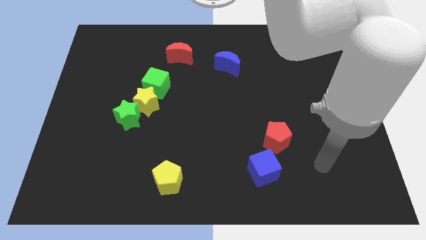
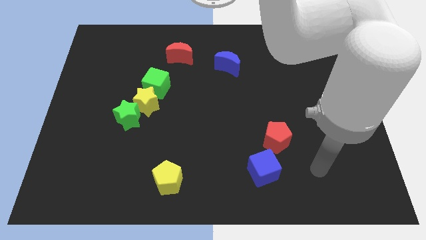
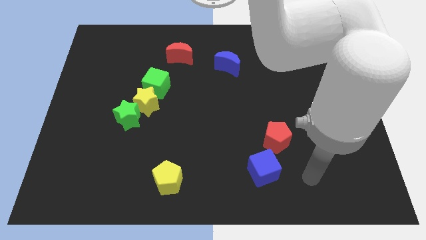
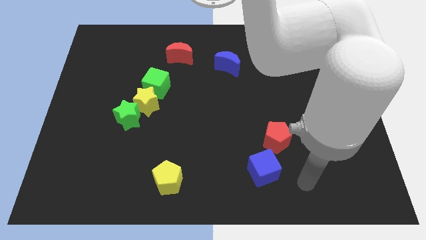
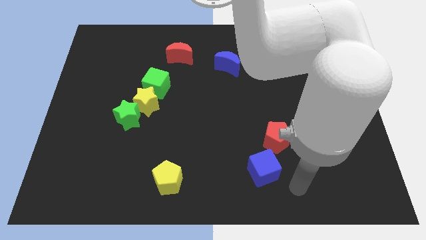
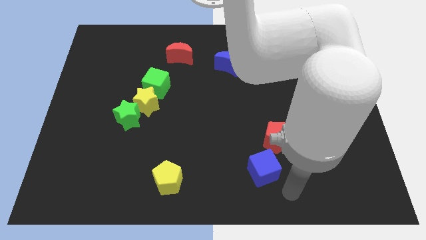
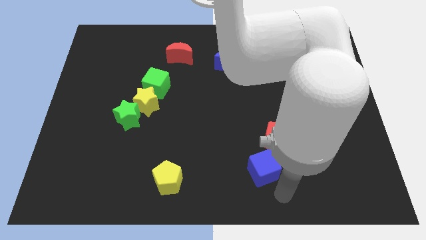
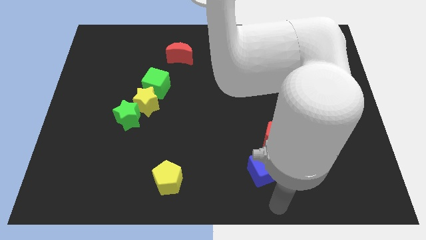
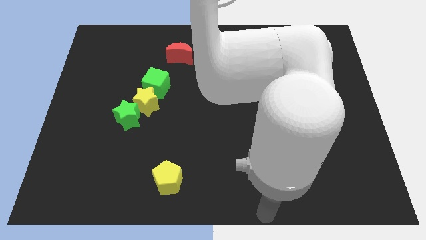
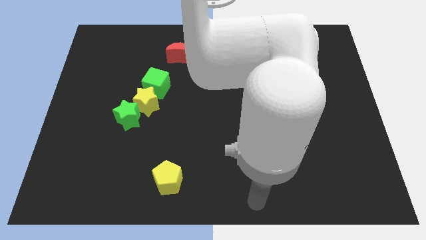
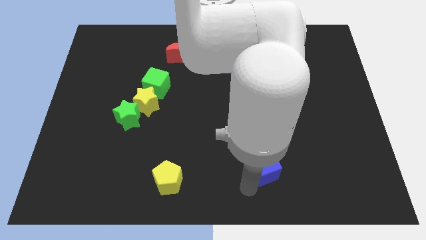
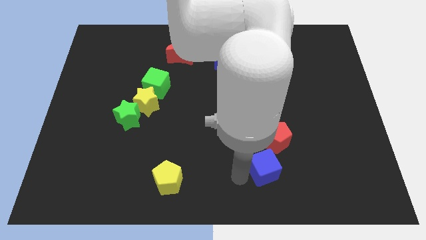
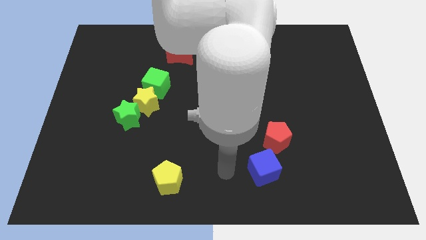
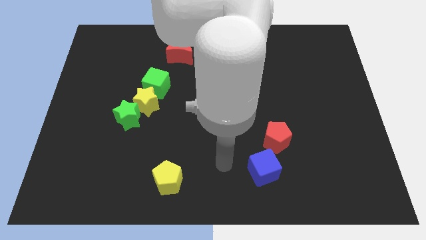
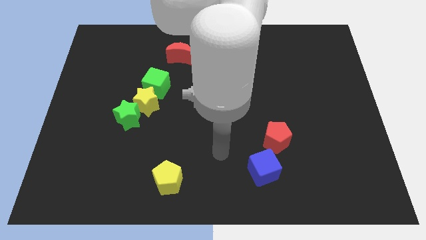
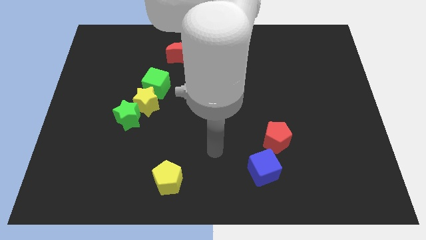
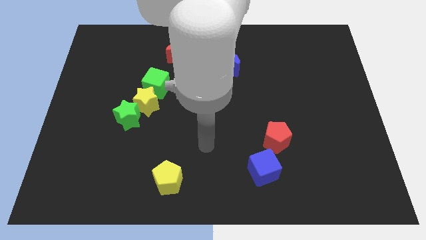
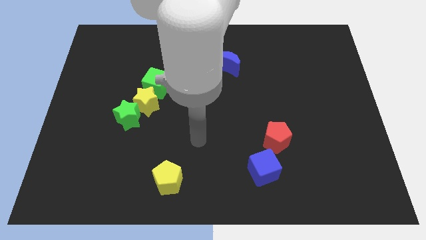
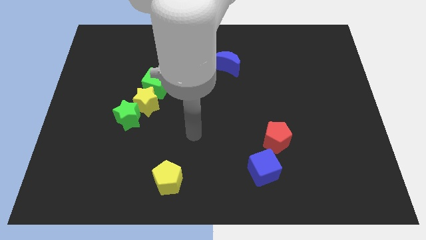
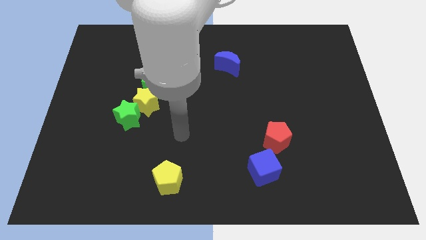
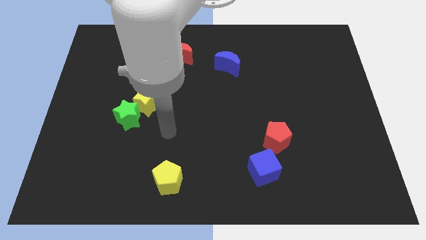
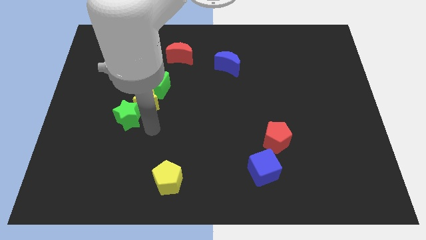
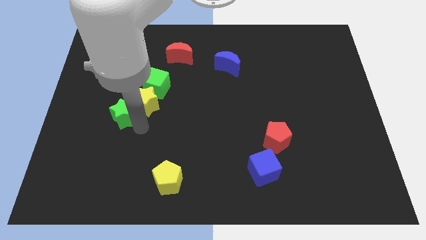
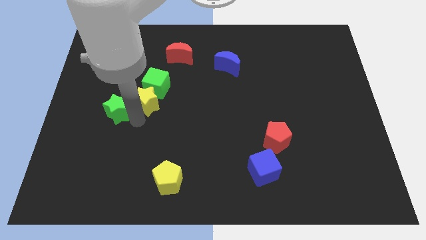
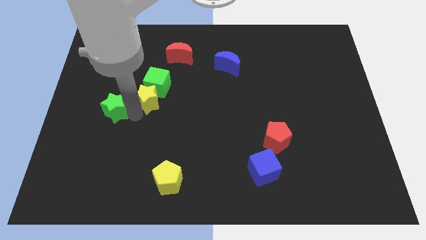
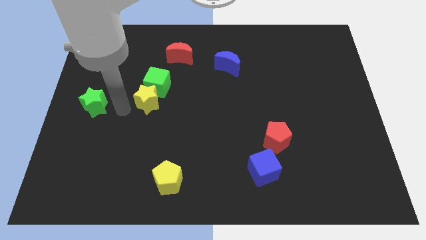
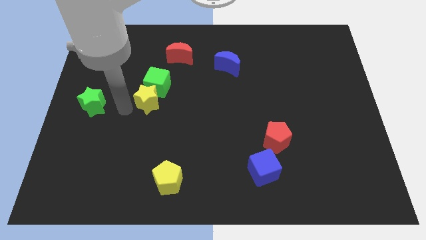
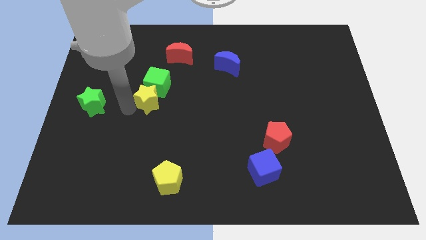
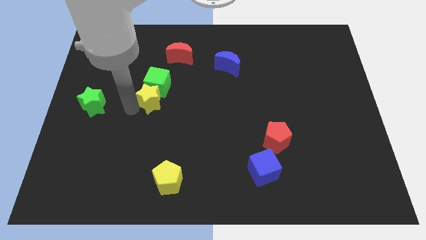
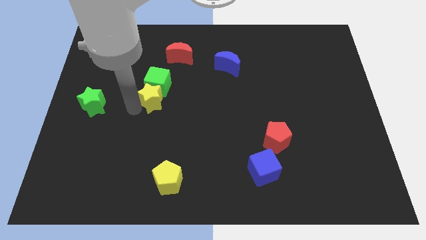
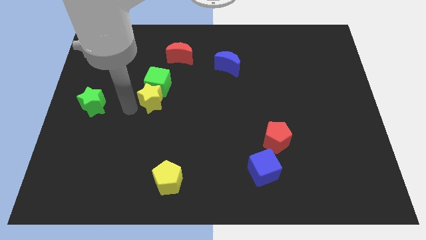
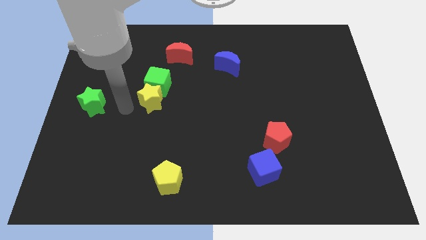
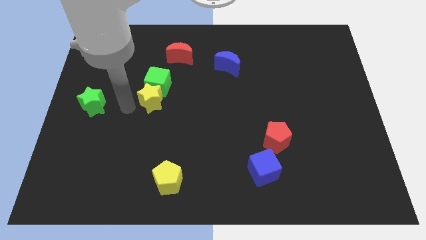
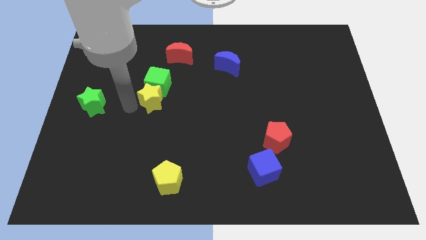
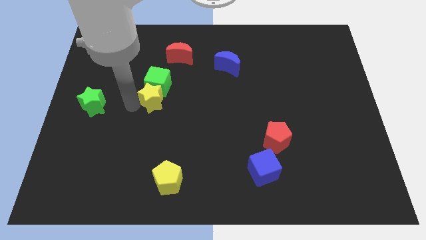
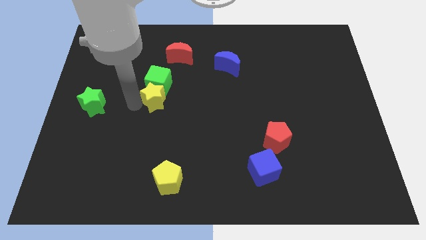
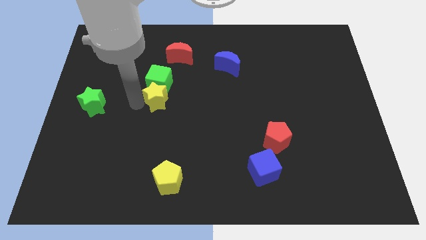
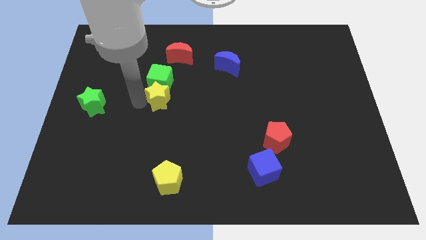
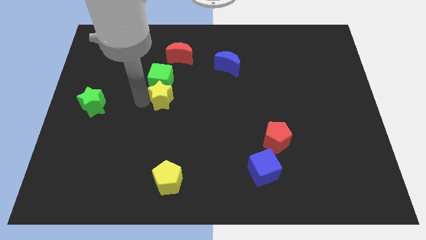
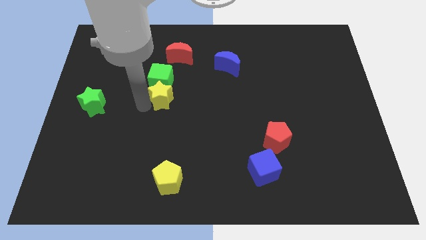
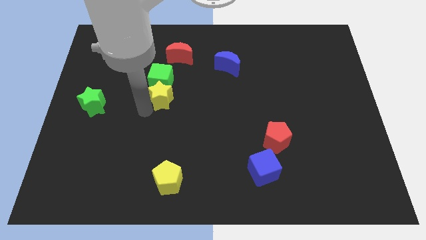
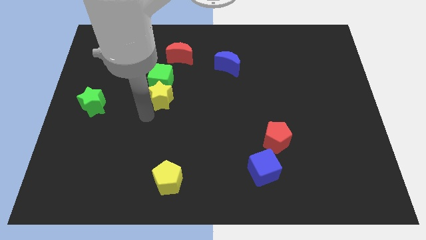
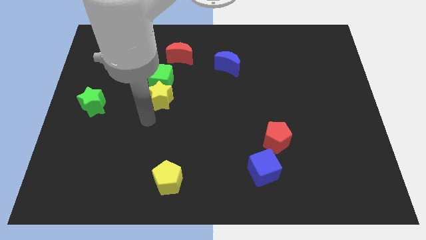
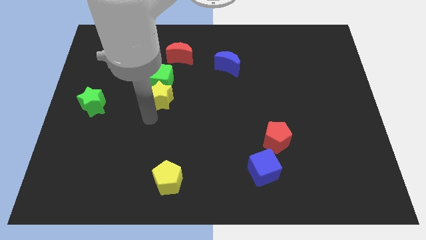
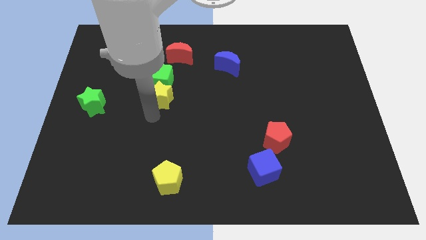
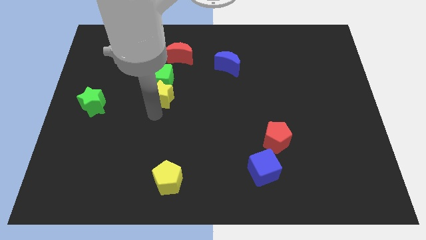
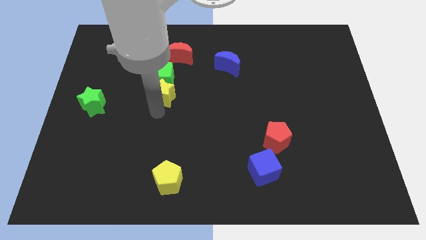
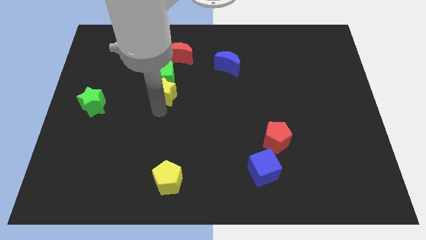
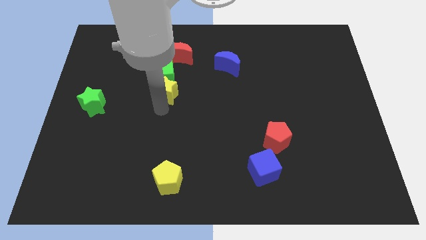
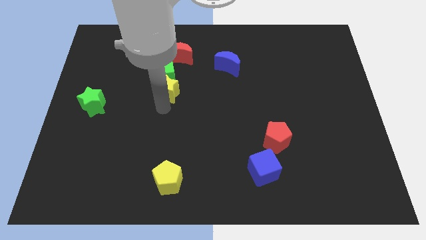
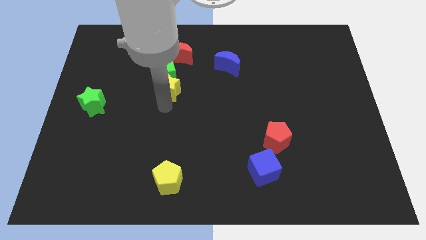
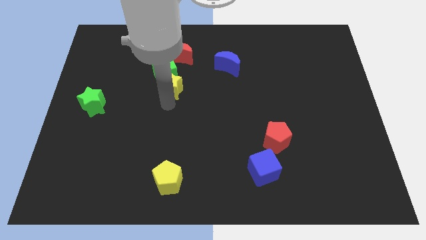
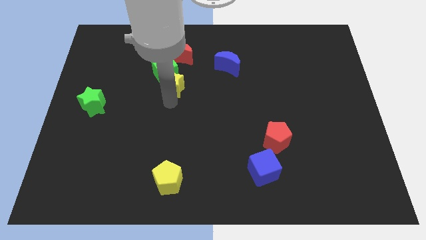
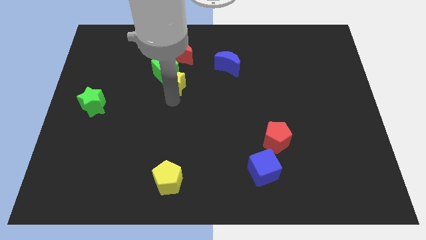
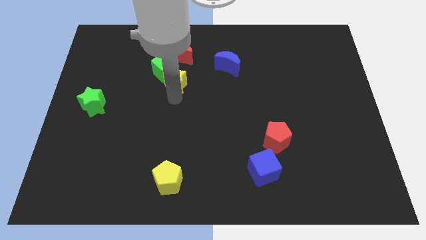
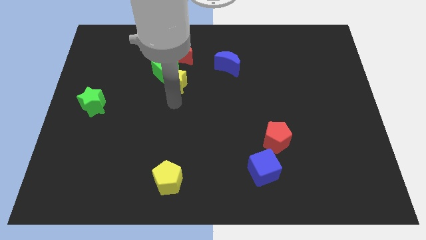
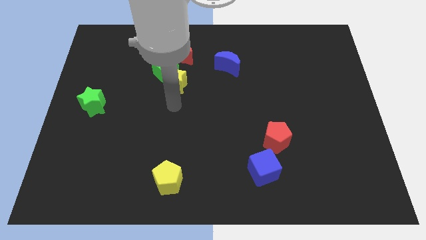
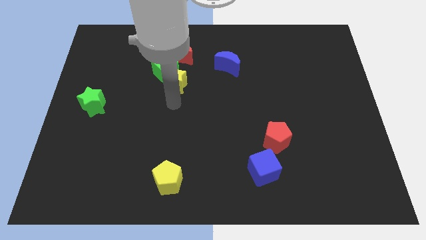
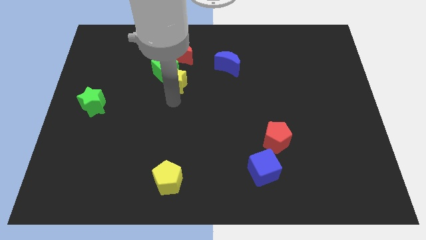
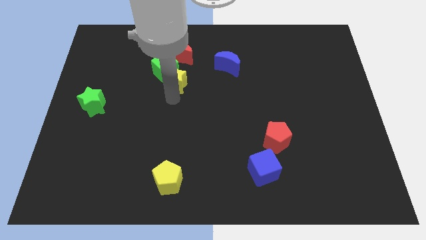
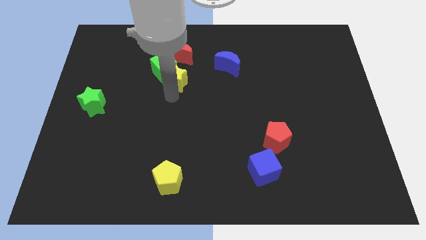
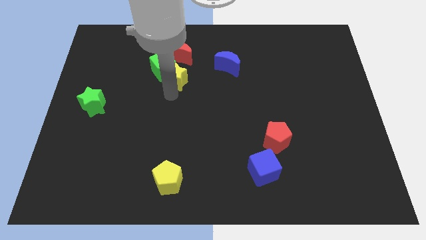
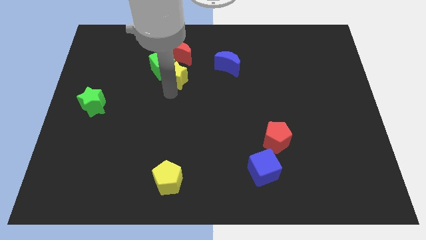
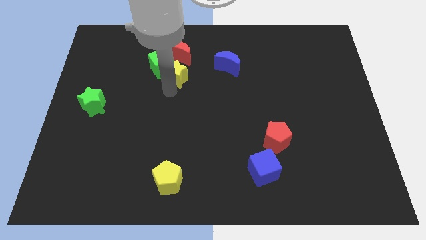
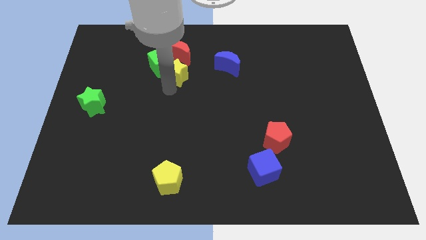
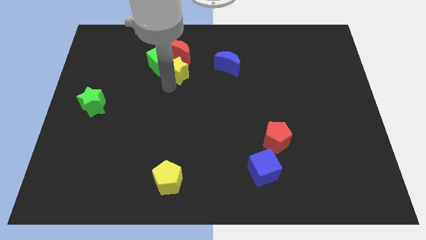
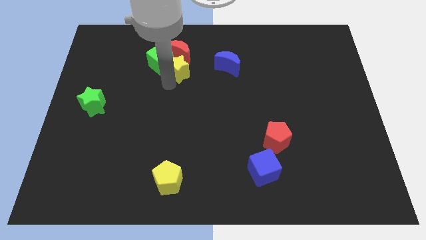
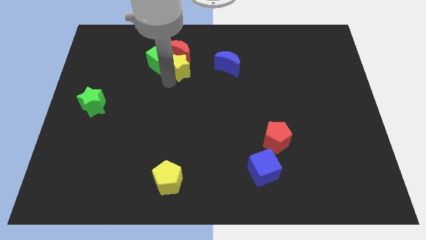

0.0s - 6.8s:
move the yellow star to the red moon
